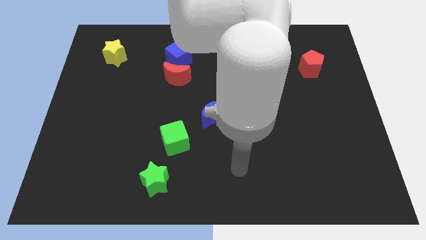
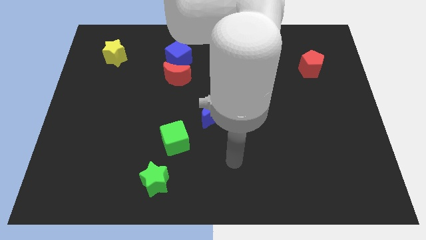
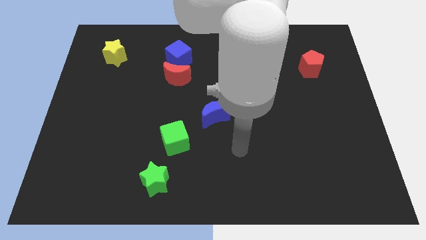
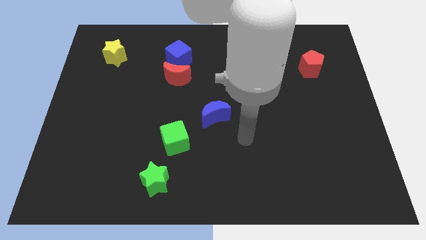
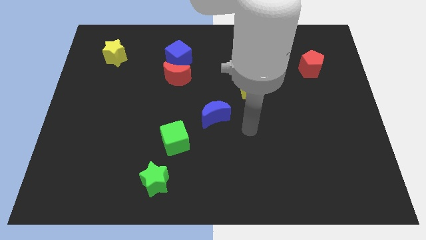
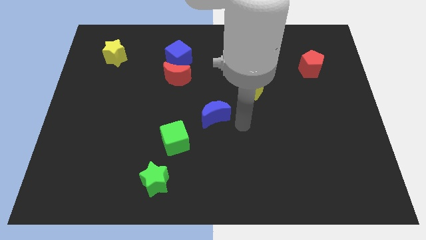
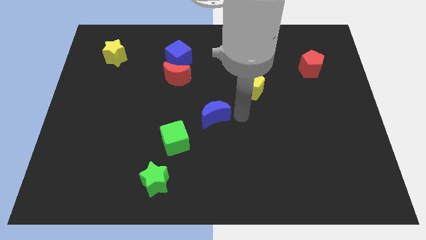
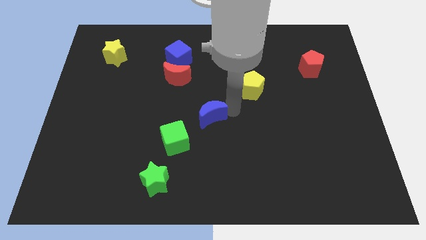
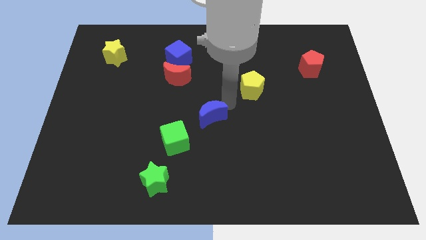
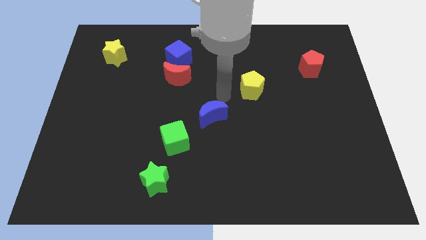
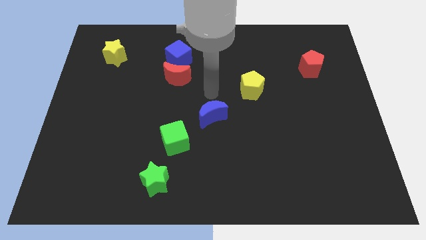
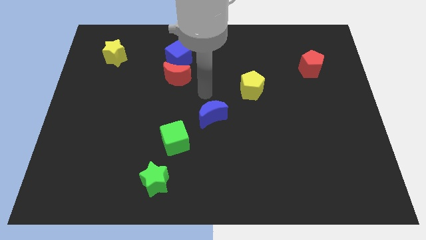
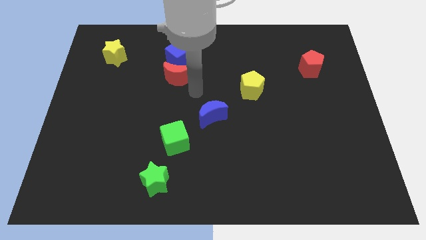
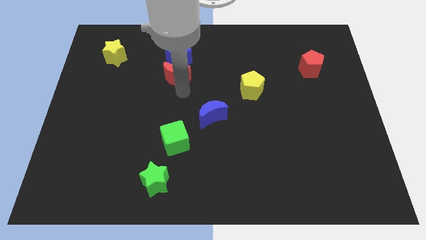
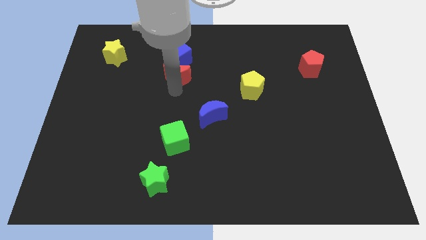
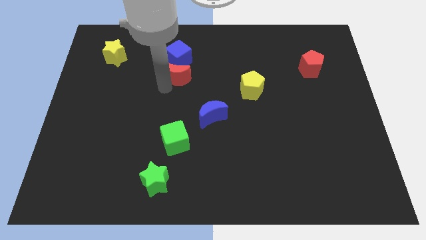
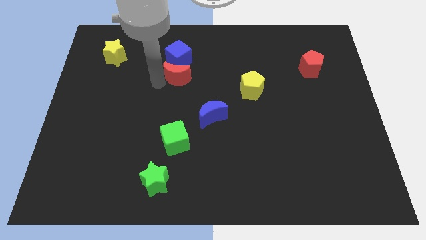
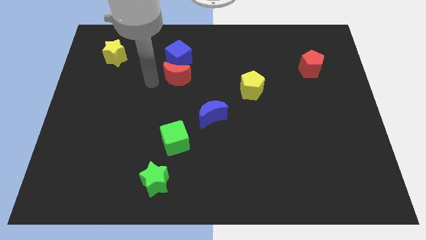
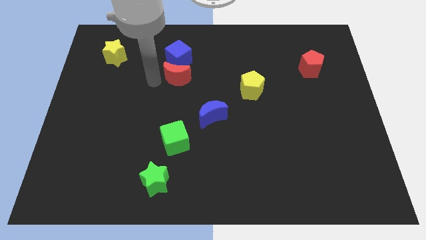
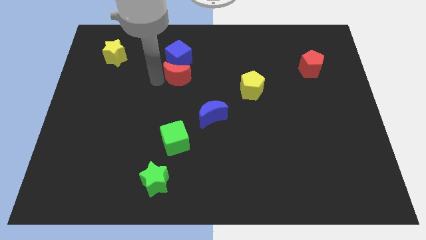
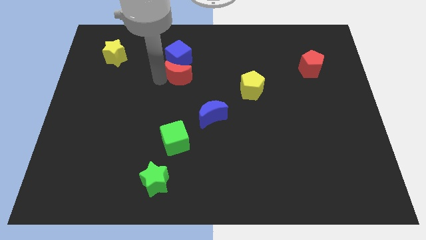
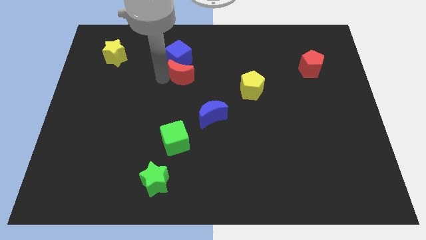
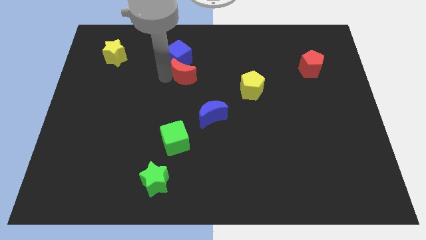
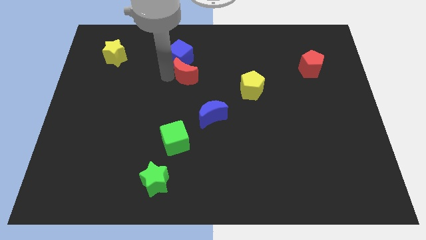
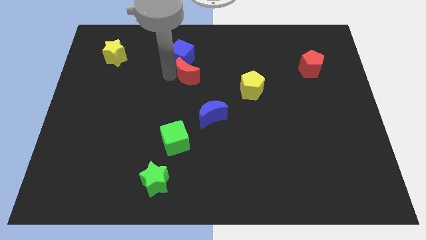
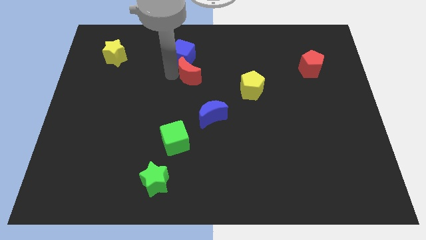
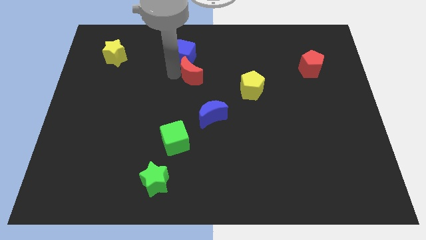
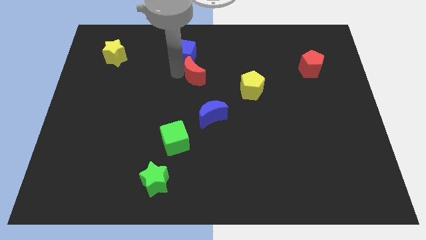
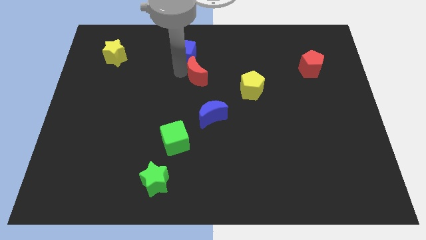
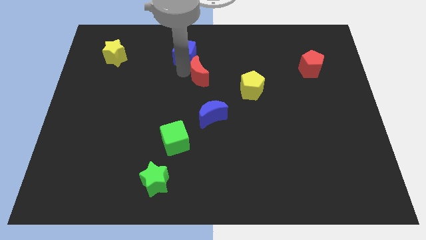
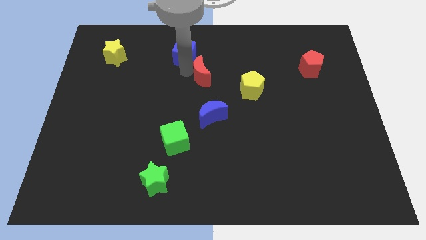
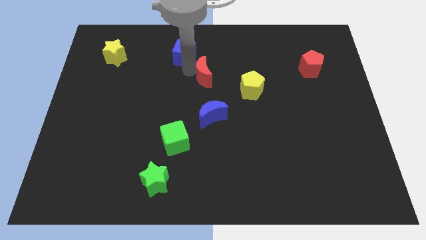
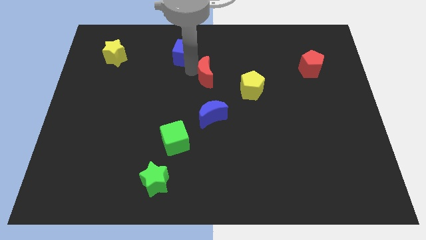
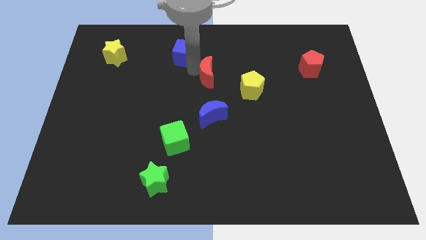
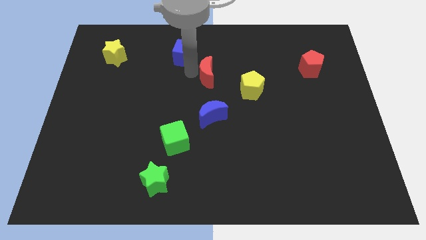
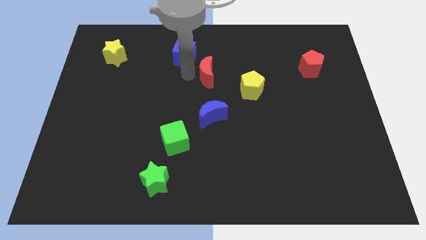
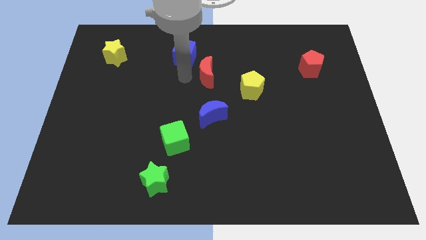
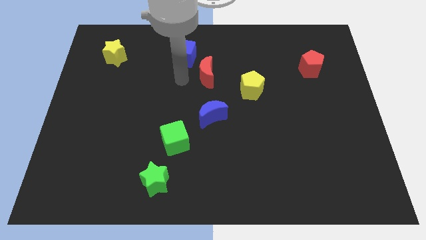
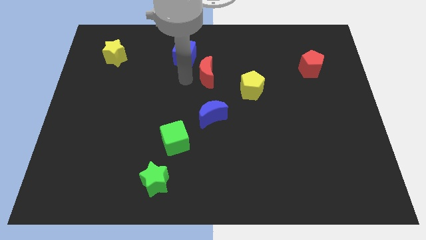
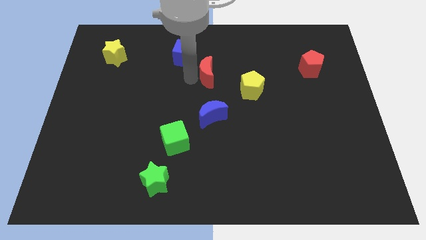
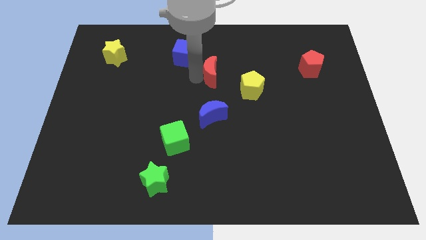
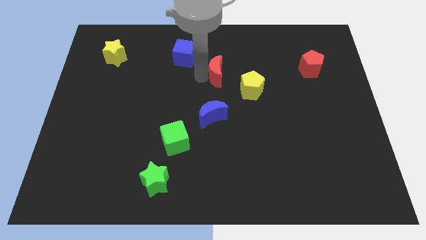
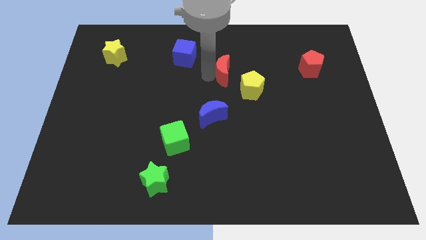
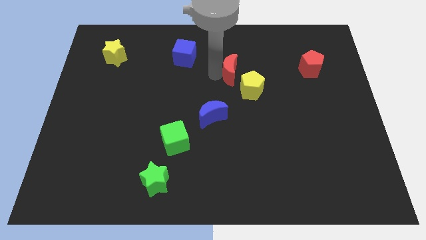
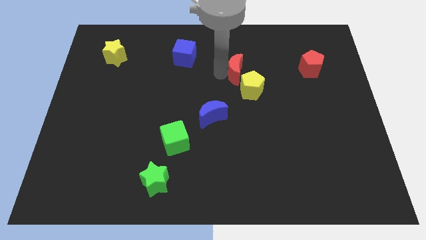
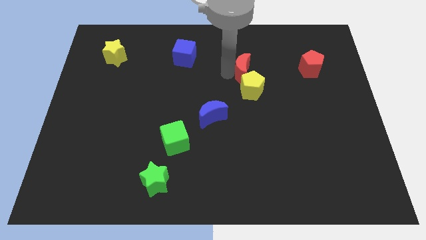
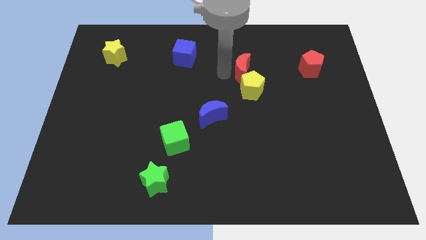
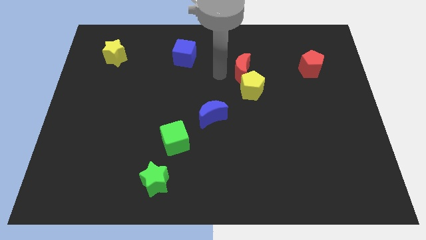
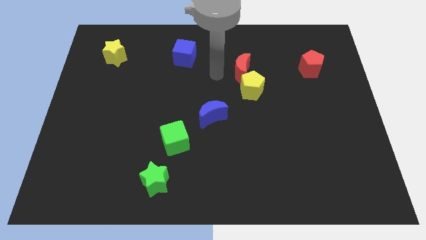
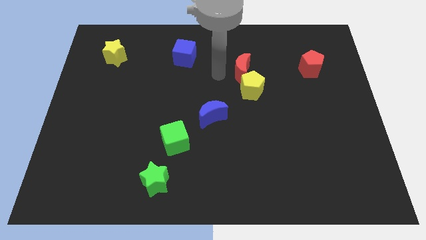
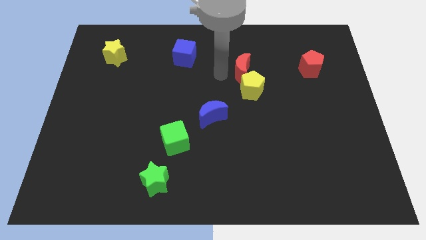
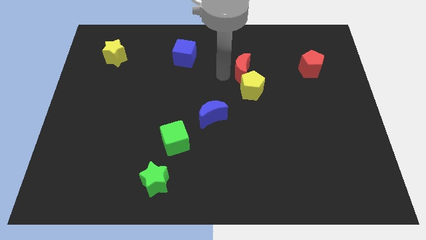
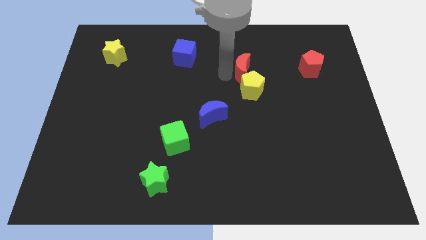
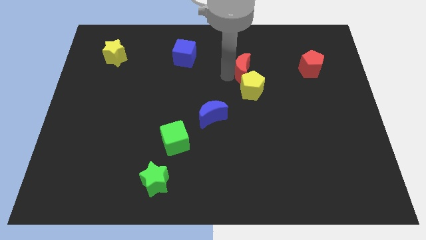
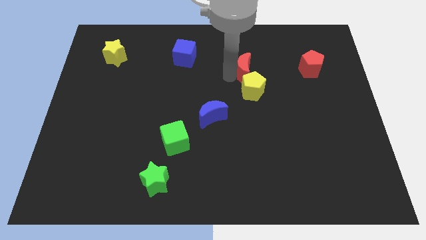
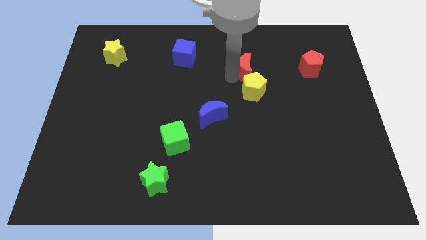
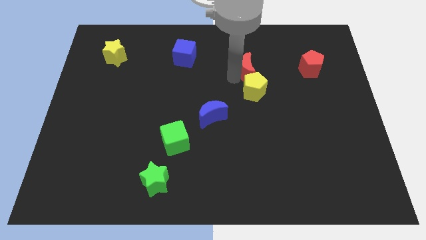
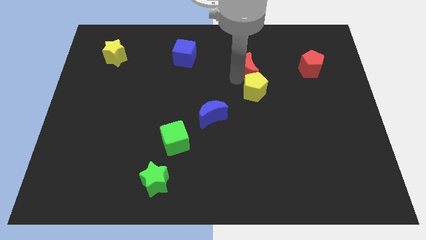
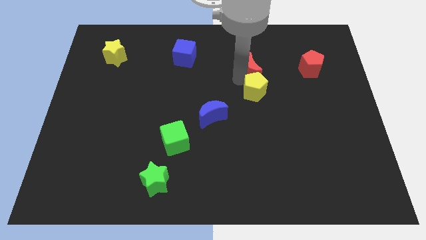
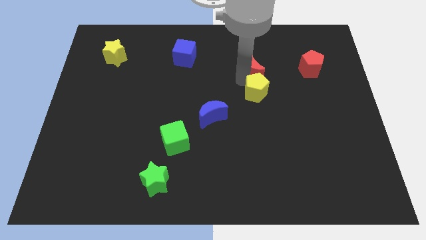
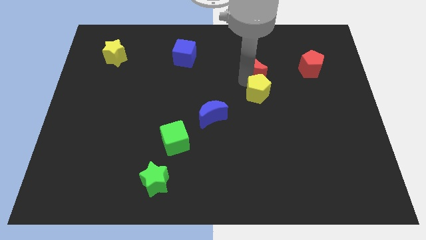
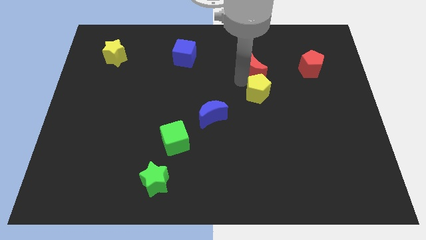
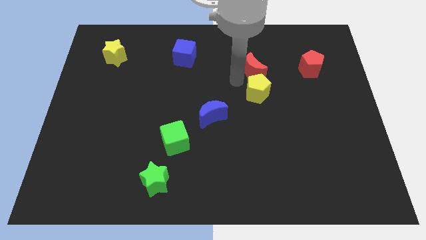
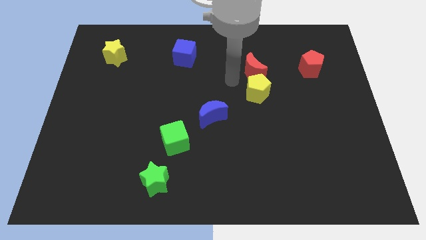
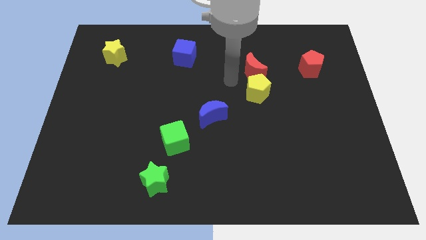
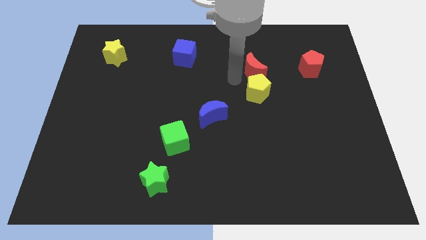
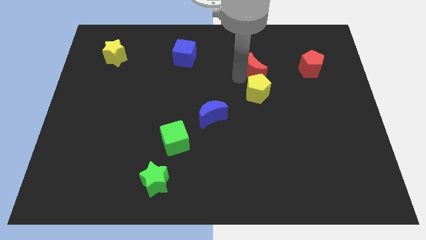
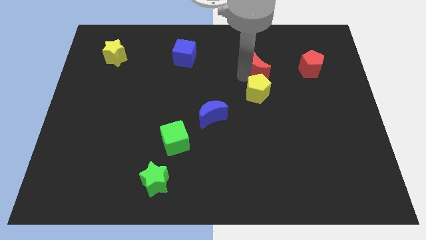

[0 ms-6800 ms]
push the red moon right

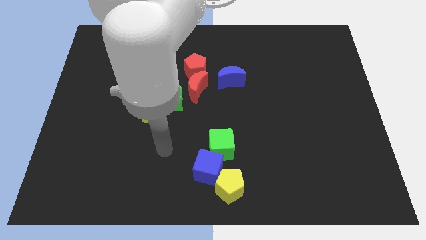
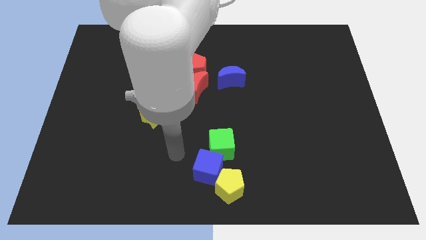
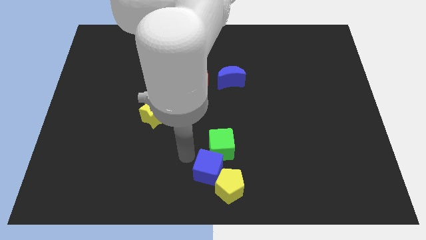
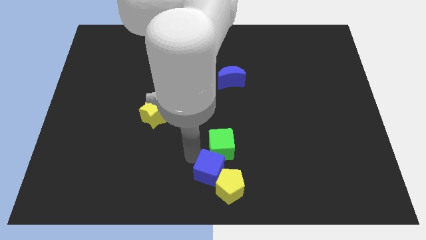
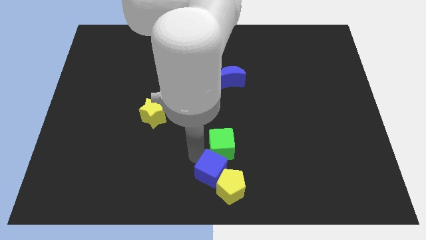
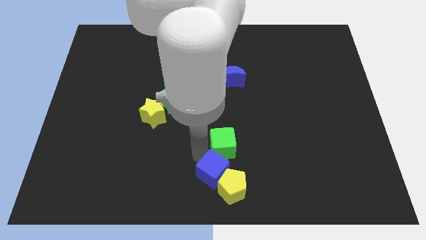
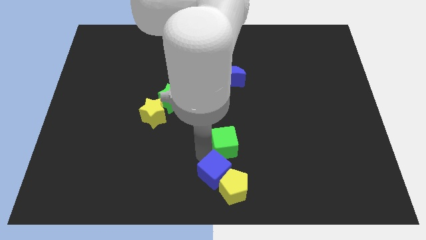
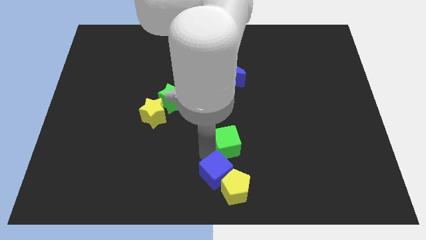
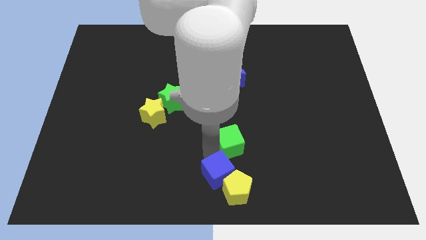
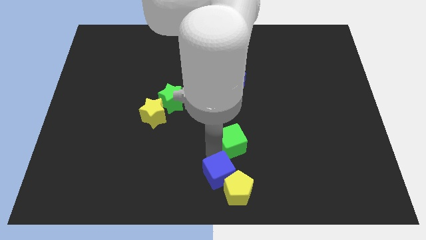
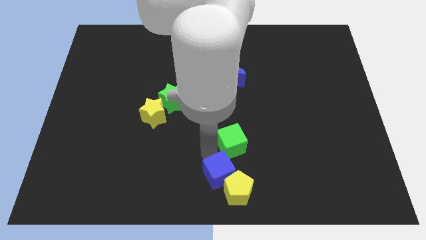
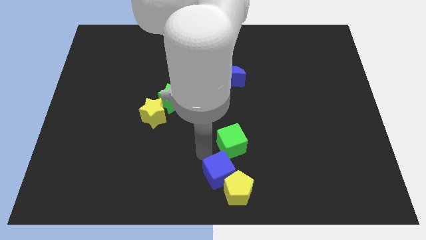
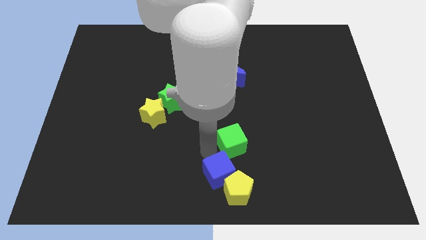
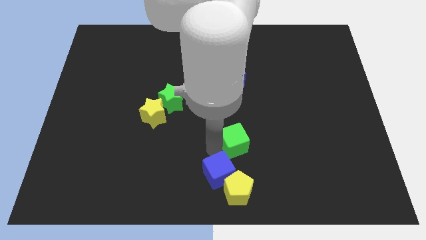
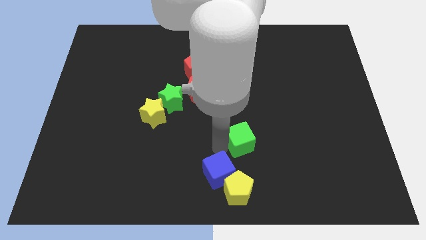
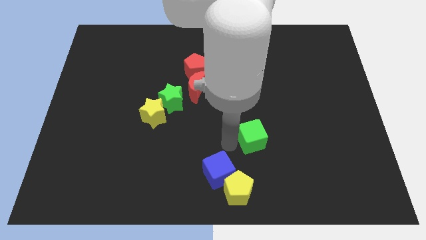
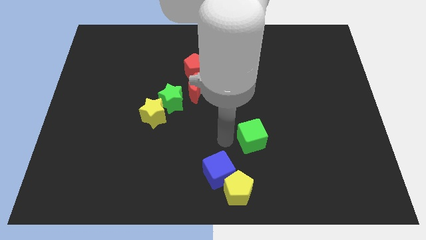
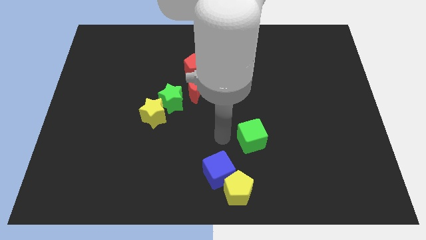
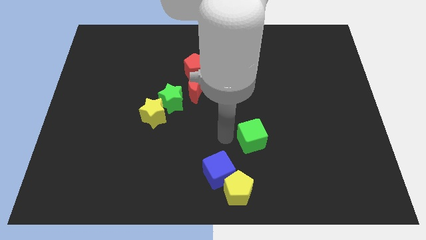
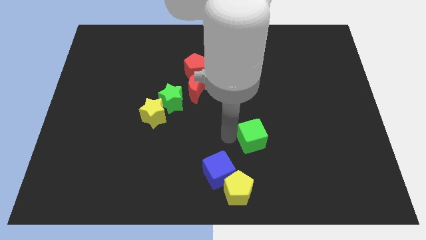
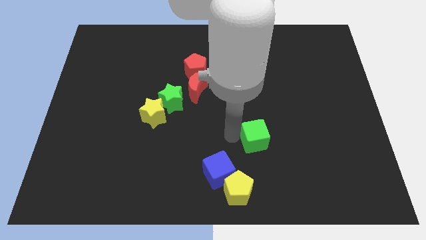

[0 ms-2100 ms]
push the green cube right a bit
